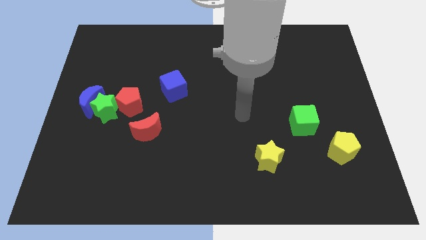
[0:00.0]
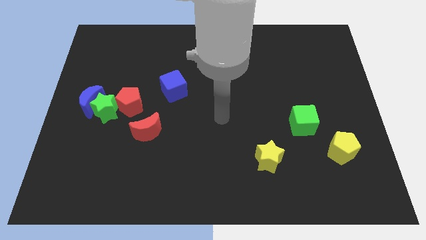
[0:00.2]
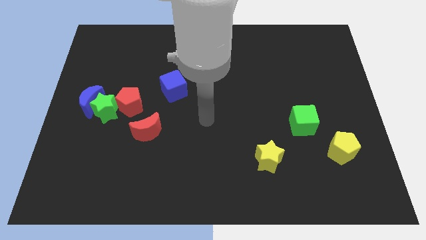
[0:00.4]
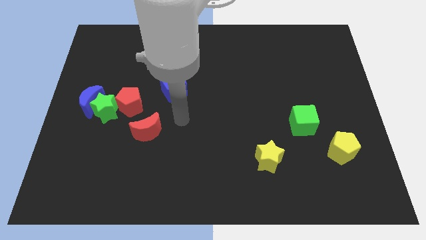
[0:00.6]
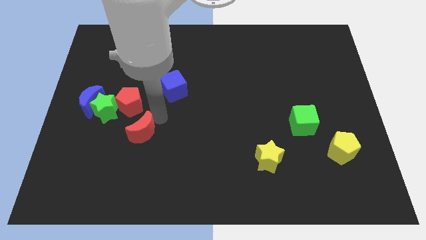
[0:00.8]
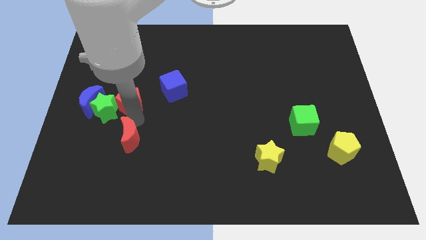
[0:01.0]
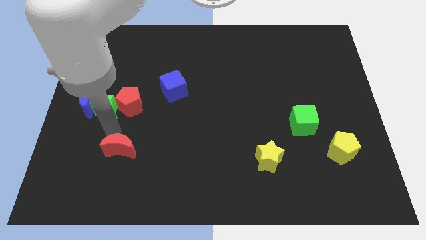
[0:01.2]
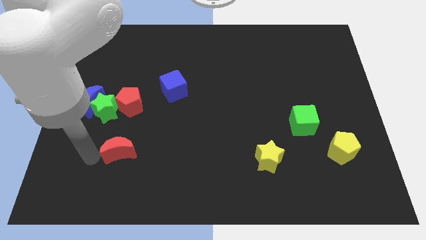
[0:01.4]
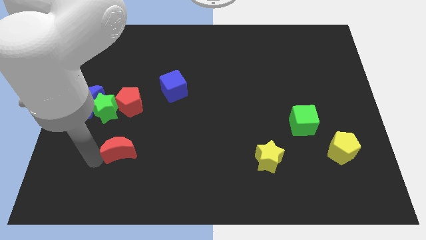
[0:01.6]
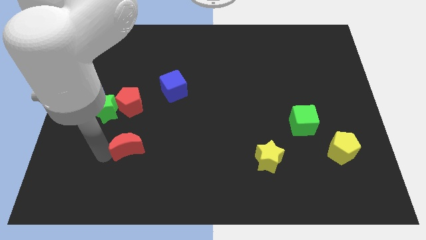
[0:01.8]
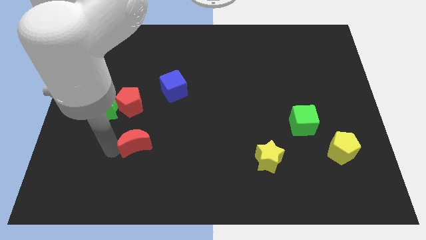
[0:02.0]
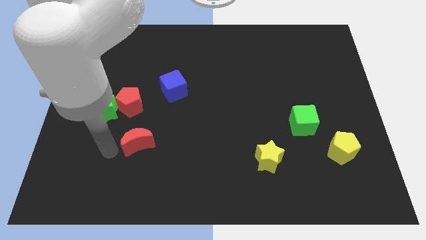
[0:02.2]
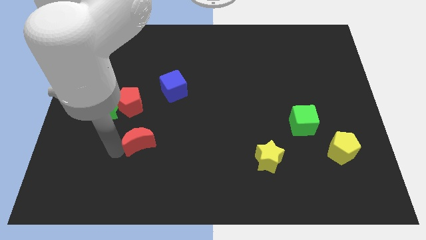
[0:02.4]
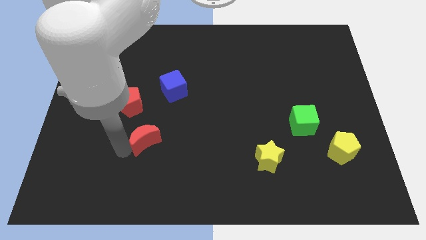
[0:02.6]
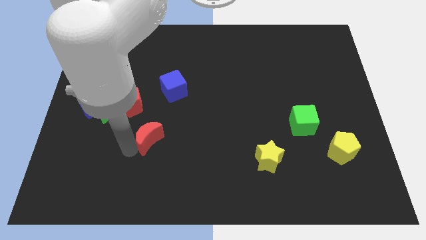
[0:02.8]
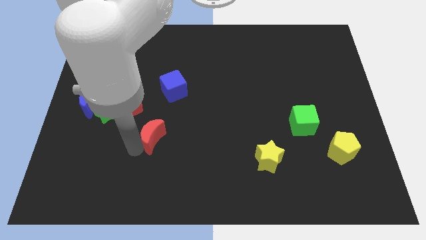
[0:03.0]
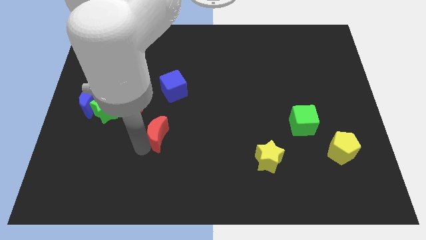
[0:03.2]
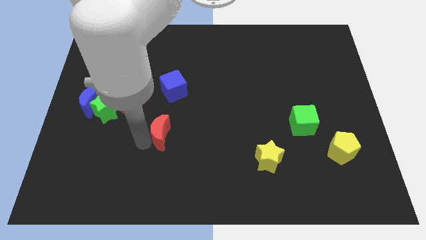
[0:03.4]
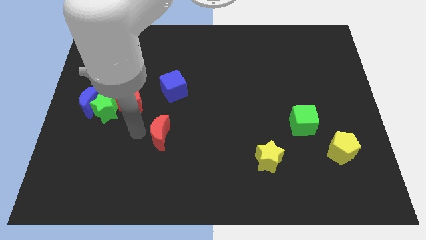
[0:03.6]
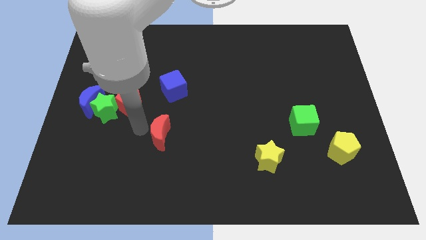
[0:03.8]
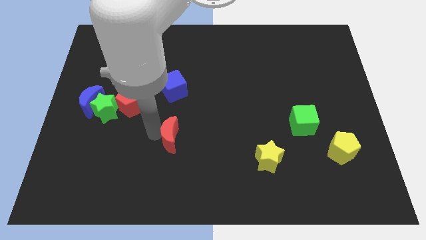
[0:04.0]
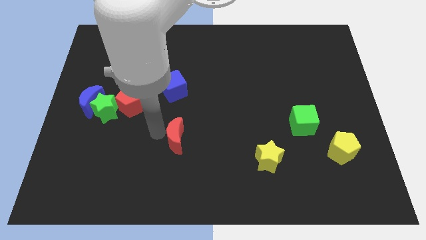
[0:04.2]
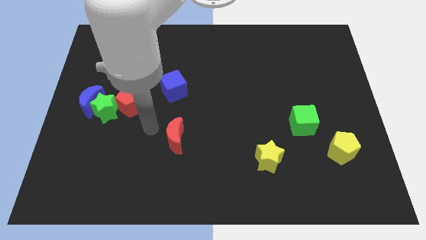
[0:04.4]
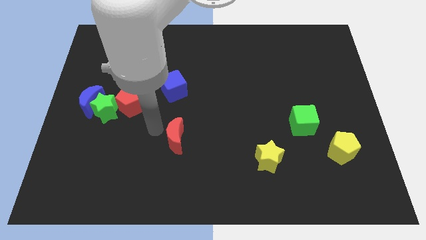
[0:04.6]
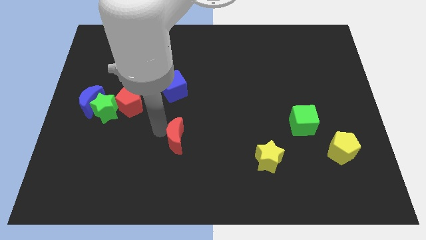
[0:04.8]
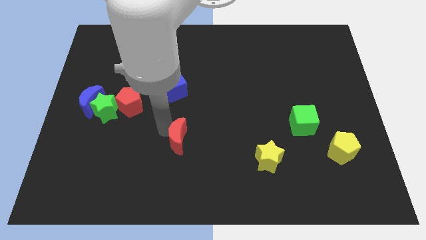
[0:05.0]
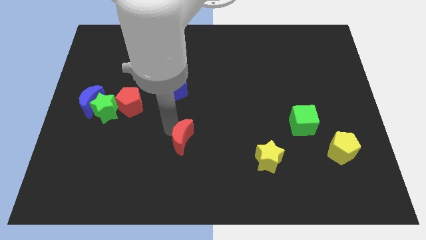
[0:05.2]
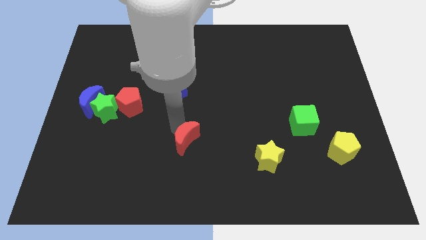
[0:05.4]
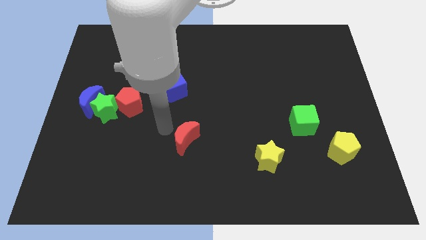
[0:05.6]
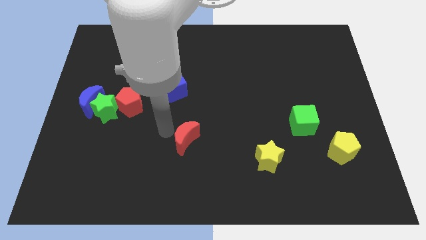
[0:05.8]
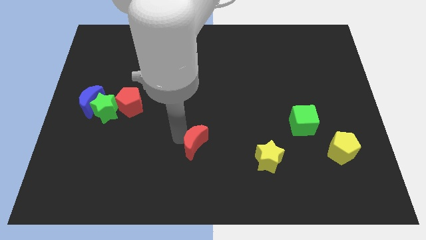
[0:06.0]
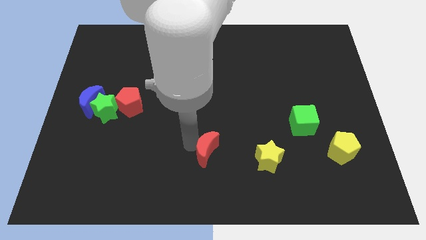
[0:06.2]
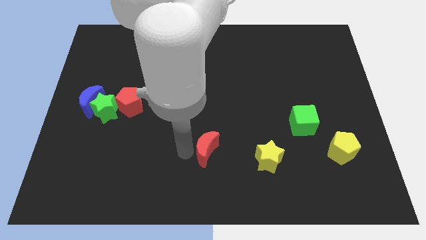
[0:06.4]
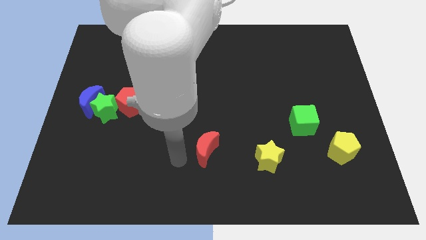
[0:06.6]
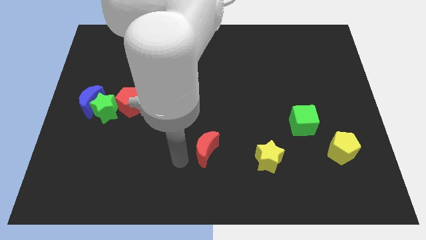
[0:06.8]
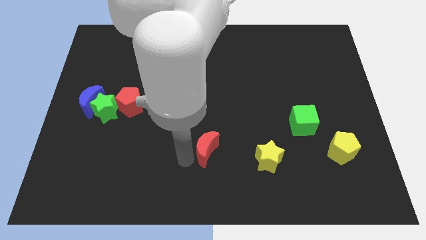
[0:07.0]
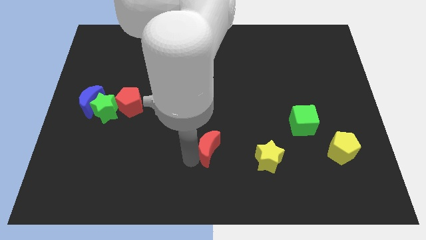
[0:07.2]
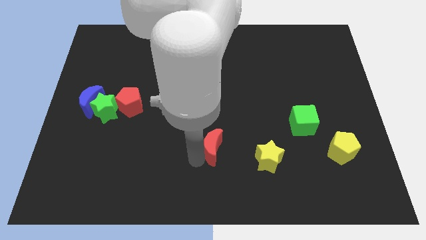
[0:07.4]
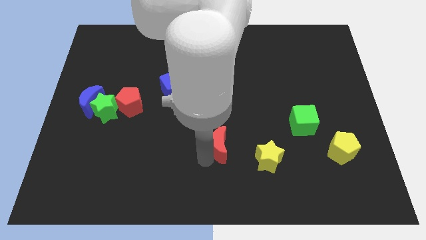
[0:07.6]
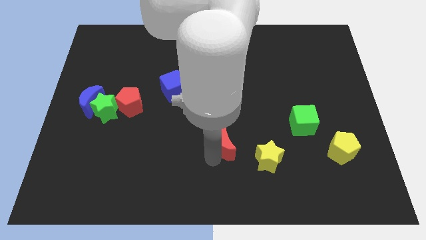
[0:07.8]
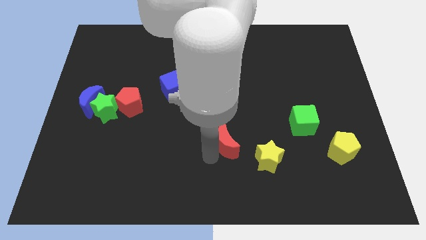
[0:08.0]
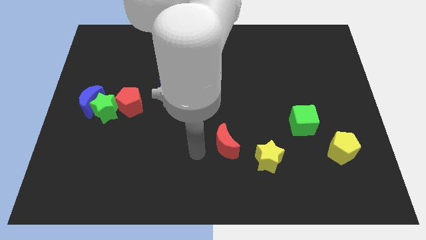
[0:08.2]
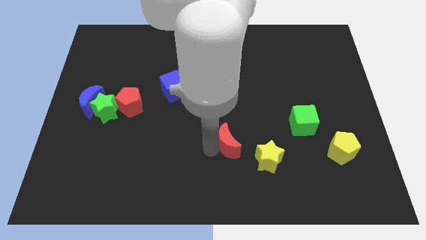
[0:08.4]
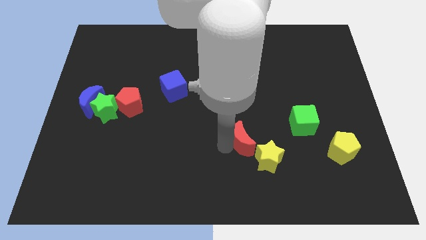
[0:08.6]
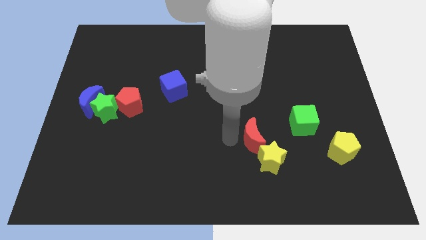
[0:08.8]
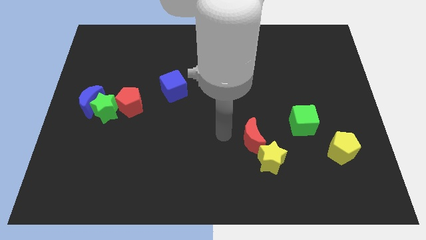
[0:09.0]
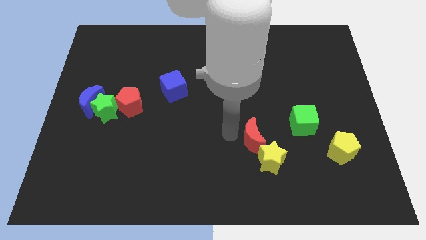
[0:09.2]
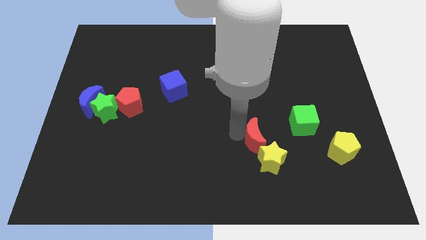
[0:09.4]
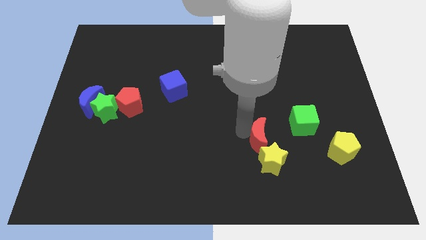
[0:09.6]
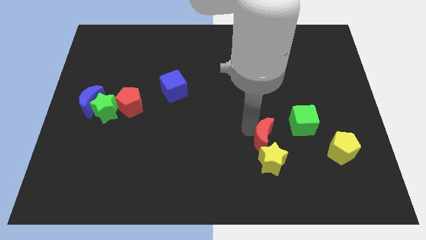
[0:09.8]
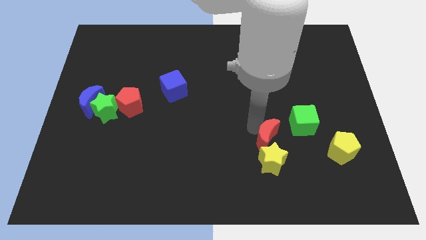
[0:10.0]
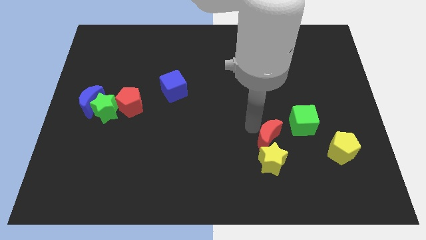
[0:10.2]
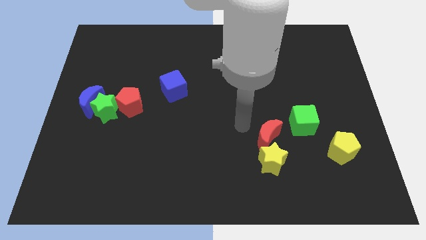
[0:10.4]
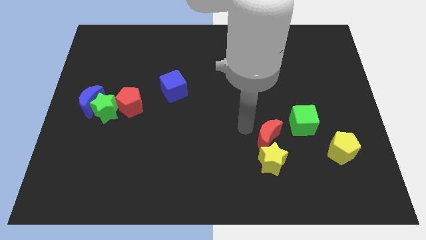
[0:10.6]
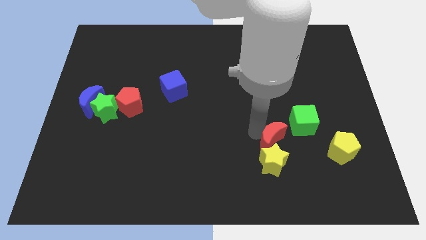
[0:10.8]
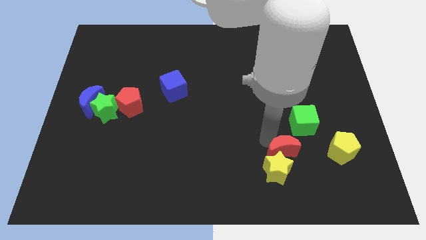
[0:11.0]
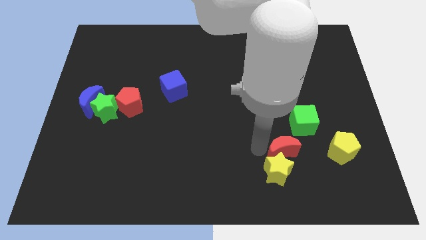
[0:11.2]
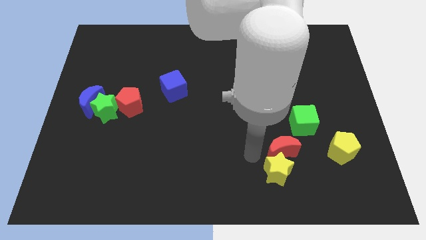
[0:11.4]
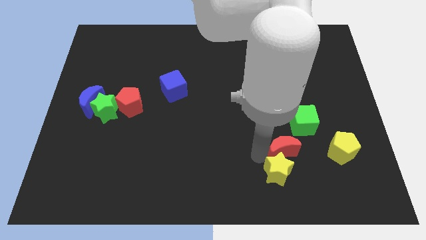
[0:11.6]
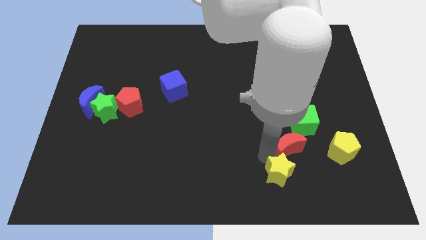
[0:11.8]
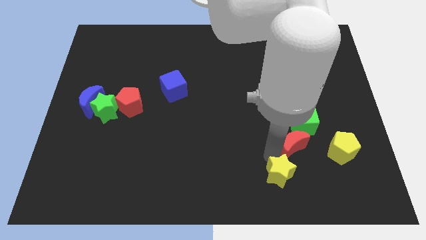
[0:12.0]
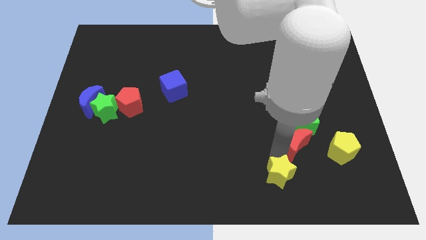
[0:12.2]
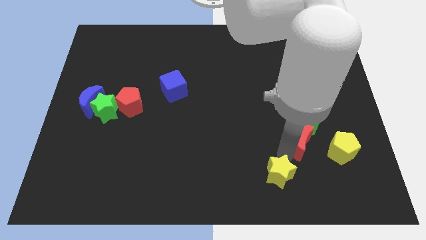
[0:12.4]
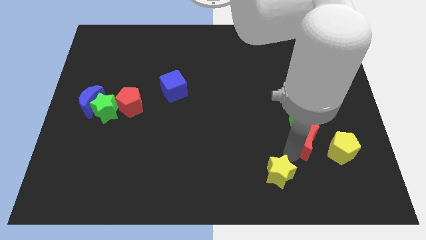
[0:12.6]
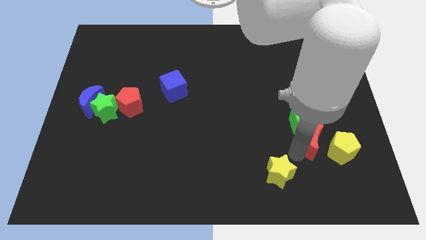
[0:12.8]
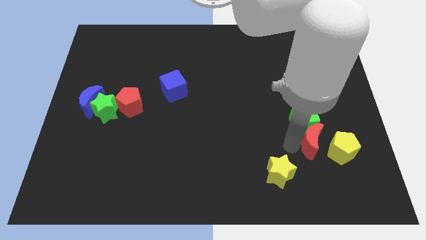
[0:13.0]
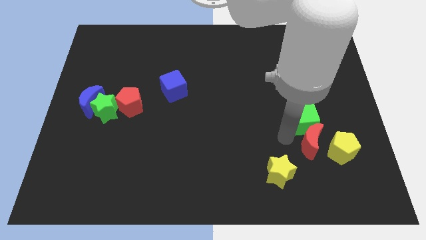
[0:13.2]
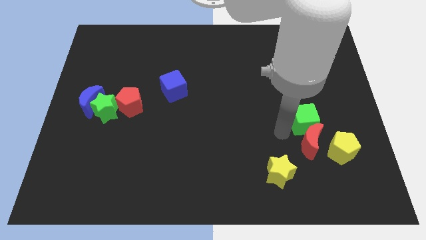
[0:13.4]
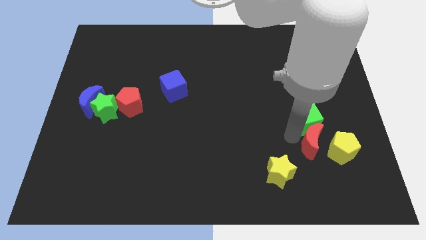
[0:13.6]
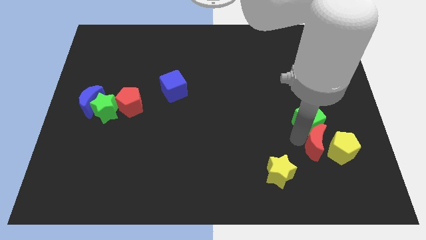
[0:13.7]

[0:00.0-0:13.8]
push the red moon to the yellow pentagon
